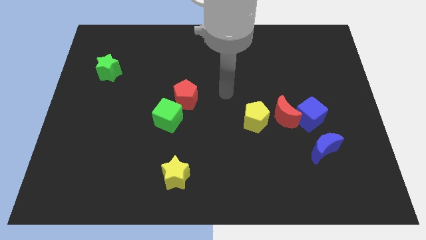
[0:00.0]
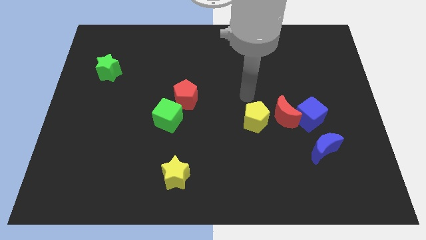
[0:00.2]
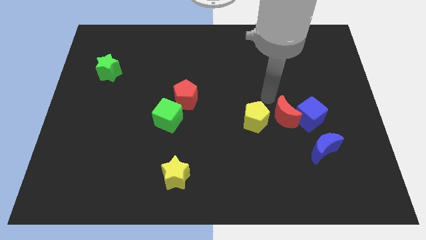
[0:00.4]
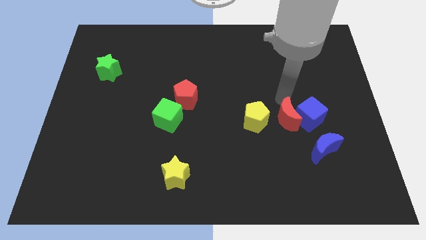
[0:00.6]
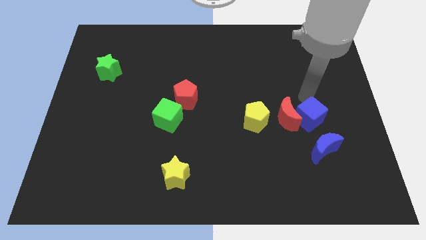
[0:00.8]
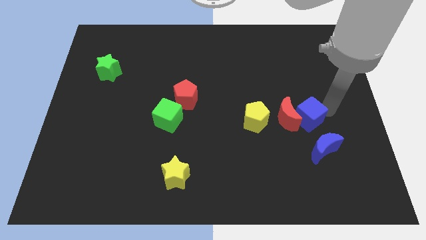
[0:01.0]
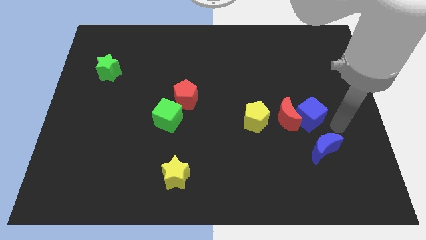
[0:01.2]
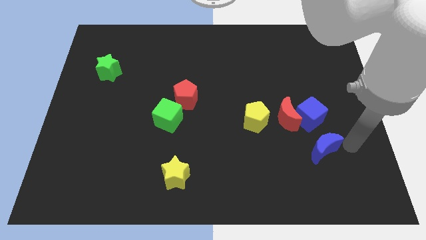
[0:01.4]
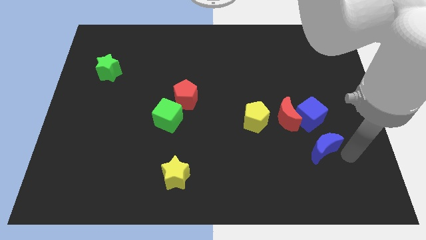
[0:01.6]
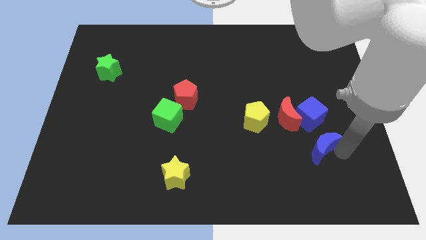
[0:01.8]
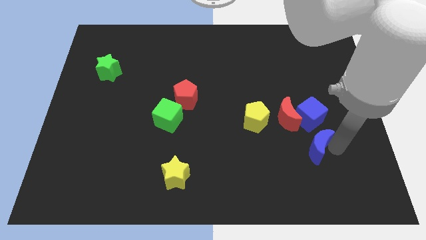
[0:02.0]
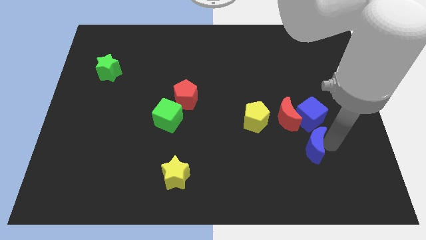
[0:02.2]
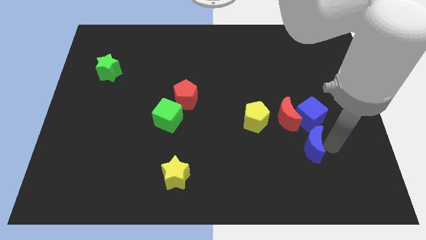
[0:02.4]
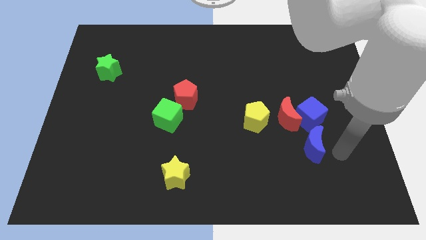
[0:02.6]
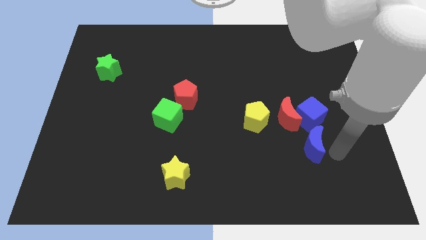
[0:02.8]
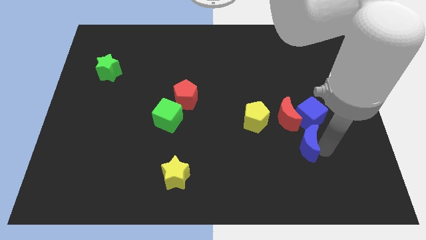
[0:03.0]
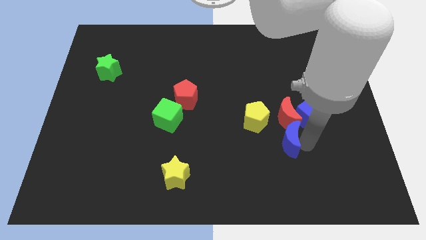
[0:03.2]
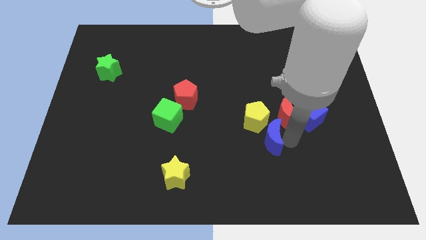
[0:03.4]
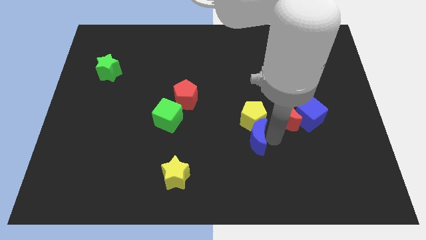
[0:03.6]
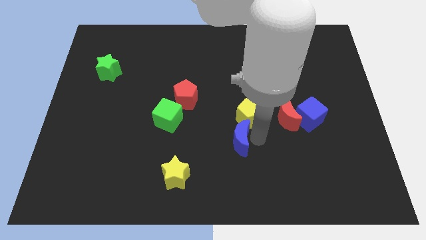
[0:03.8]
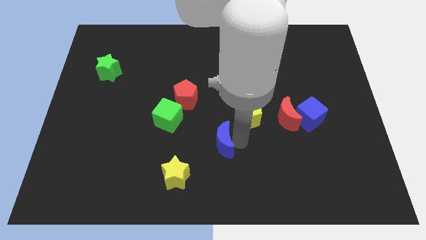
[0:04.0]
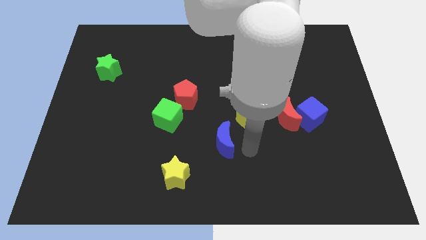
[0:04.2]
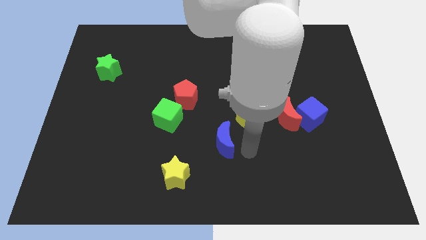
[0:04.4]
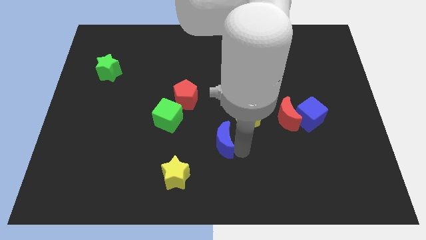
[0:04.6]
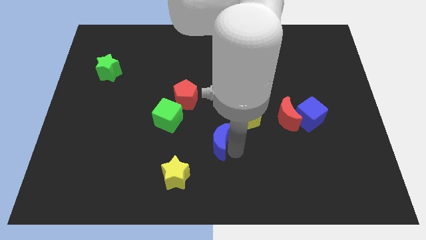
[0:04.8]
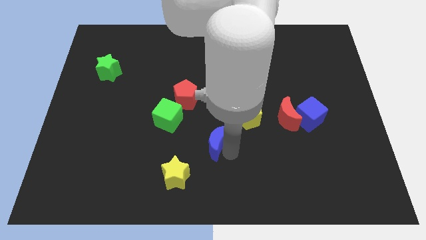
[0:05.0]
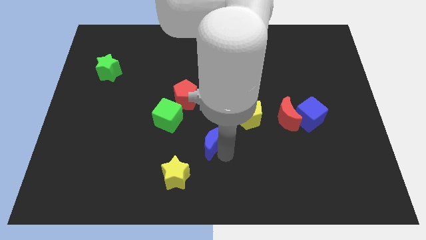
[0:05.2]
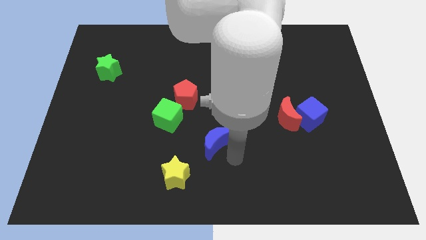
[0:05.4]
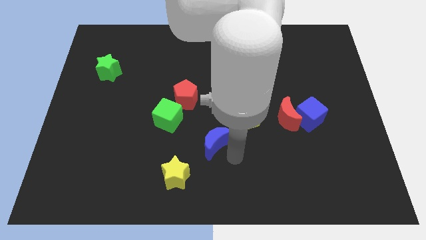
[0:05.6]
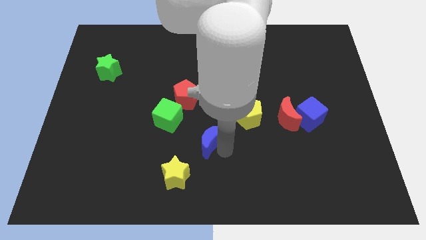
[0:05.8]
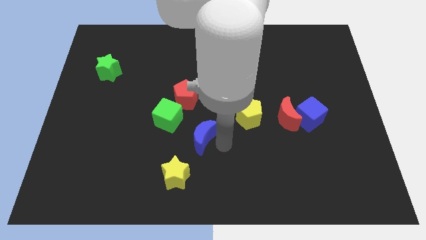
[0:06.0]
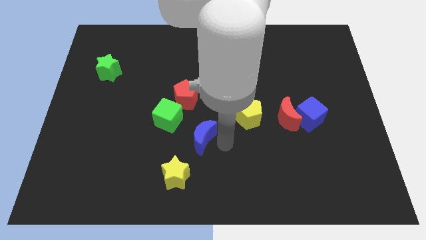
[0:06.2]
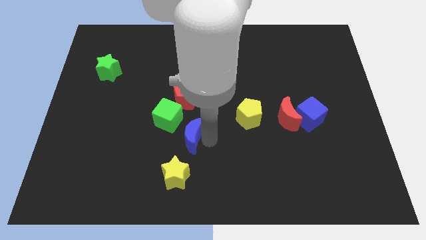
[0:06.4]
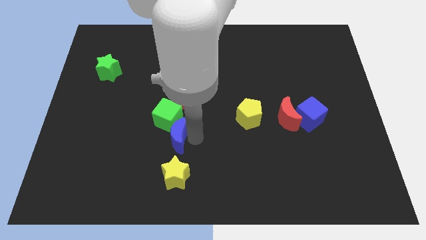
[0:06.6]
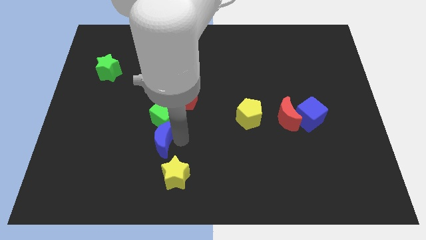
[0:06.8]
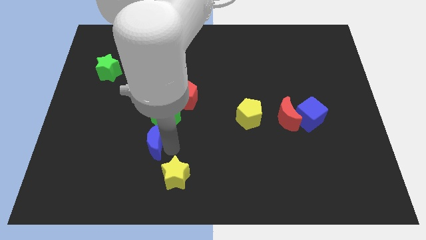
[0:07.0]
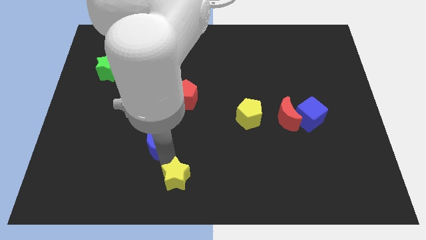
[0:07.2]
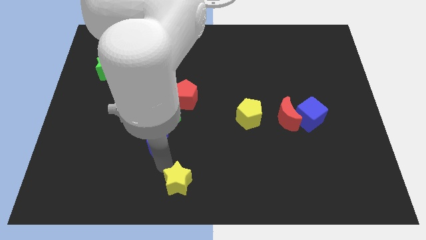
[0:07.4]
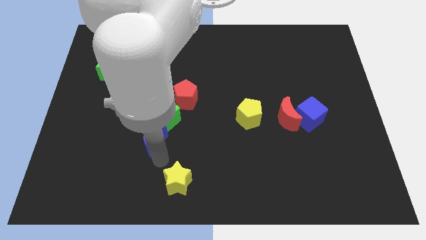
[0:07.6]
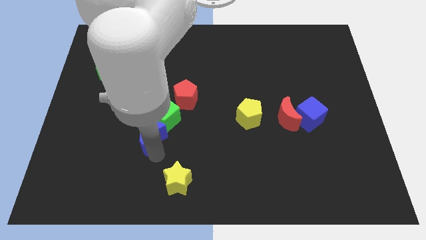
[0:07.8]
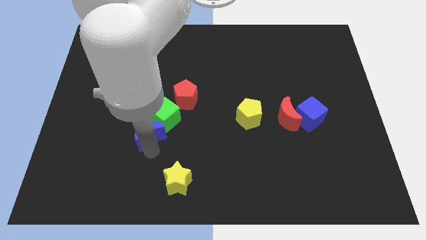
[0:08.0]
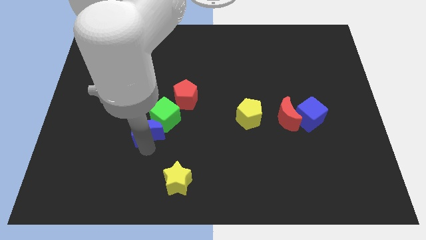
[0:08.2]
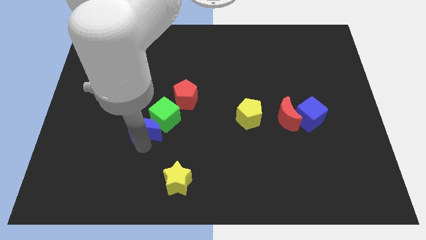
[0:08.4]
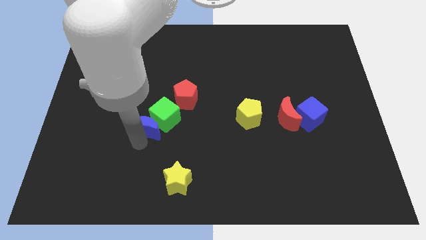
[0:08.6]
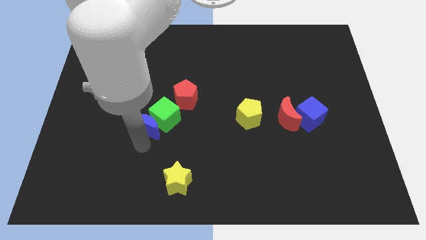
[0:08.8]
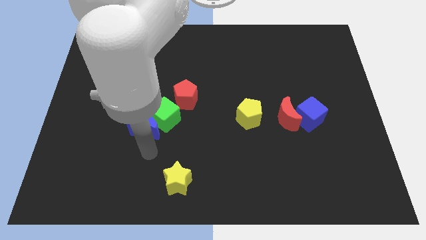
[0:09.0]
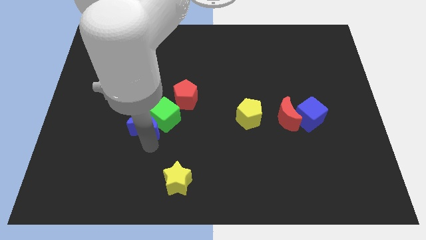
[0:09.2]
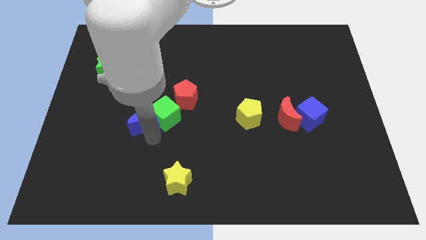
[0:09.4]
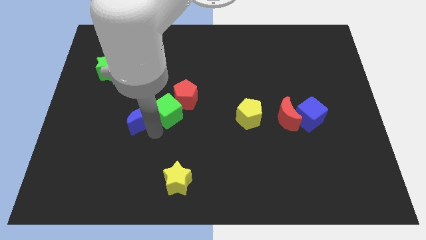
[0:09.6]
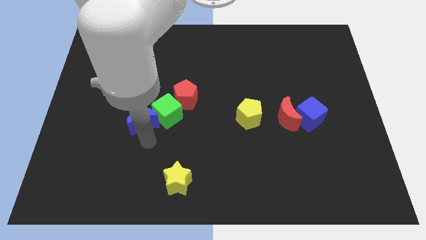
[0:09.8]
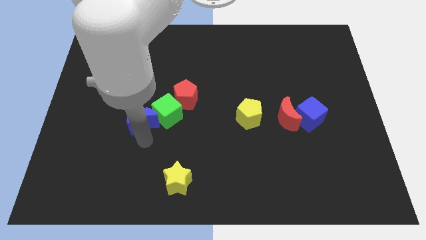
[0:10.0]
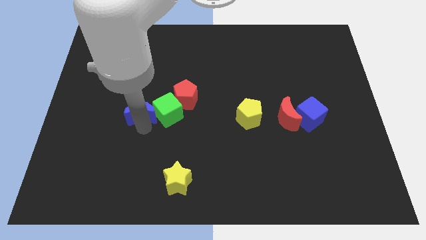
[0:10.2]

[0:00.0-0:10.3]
push the blue moon just left of the red pentagon

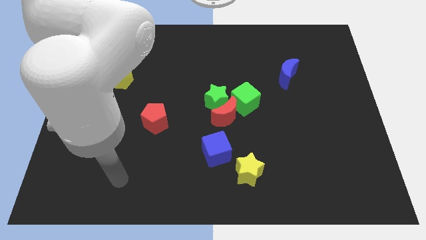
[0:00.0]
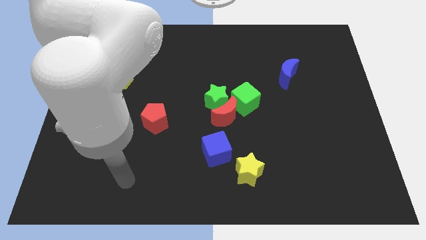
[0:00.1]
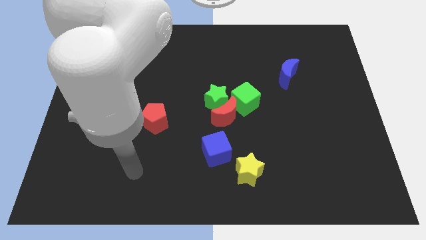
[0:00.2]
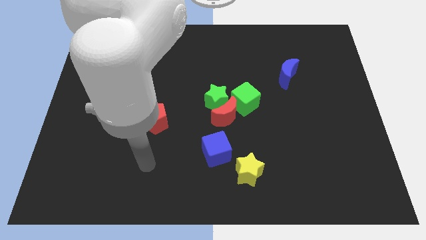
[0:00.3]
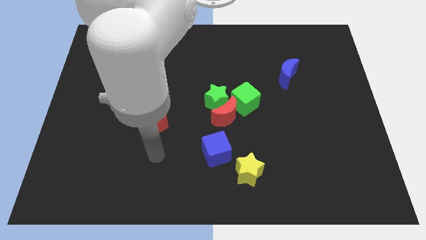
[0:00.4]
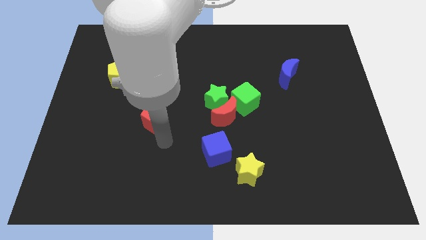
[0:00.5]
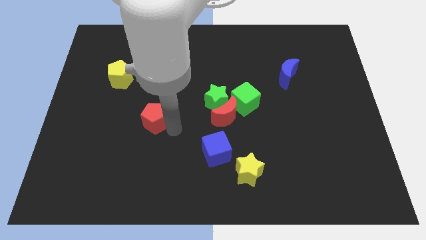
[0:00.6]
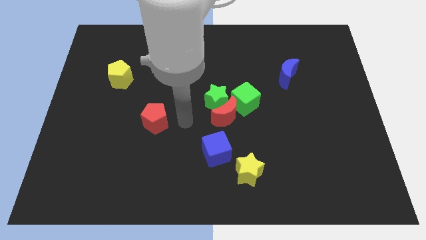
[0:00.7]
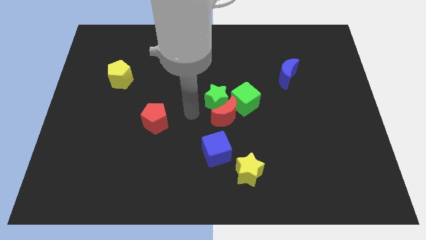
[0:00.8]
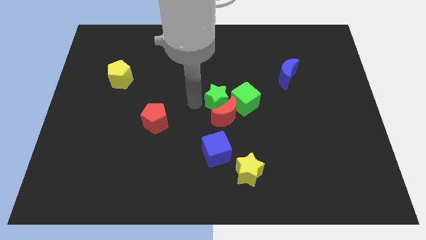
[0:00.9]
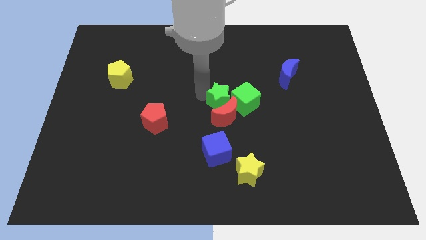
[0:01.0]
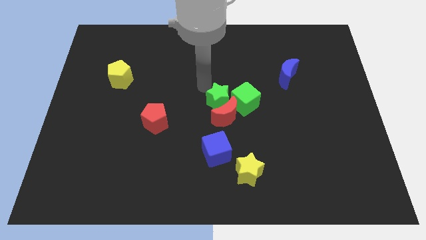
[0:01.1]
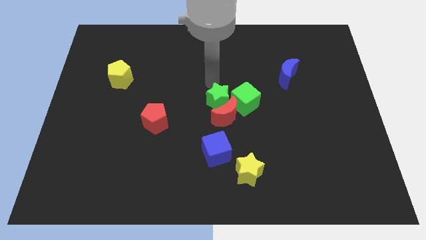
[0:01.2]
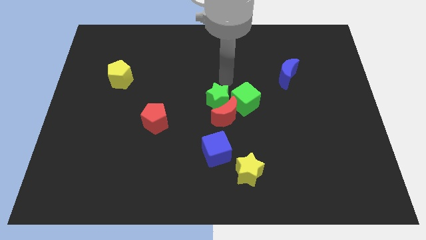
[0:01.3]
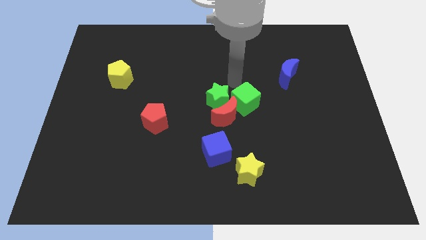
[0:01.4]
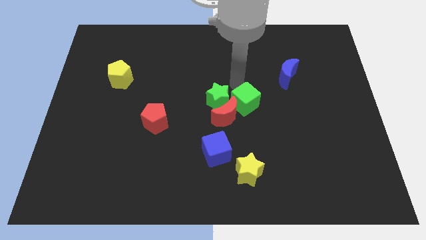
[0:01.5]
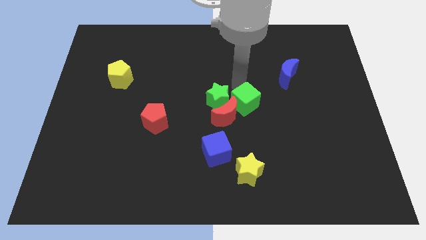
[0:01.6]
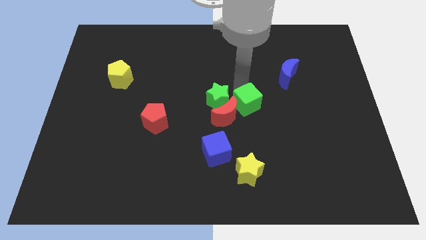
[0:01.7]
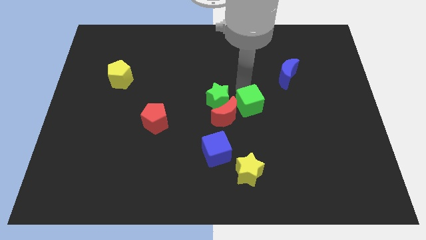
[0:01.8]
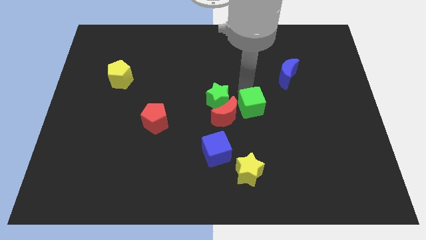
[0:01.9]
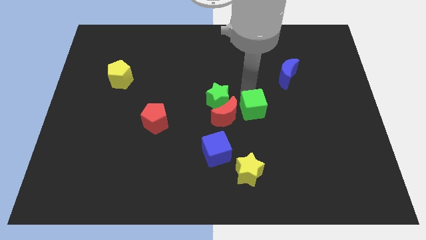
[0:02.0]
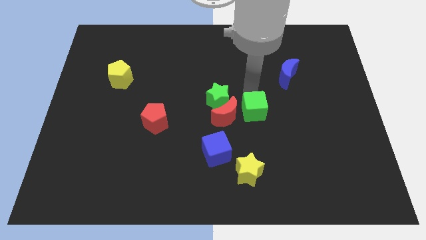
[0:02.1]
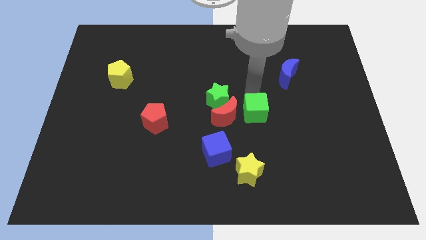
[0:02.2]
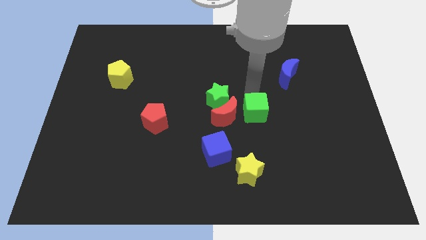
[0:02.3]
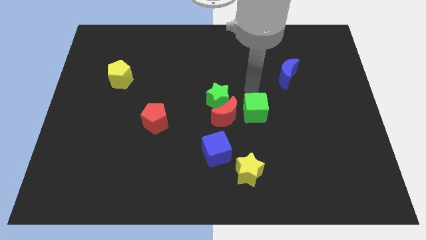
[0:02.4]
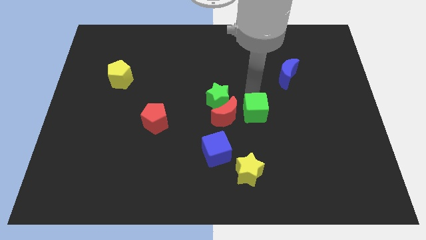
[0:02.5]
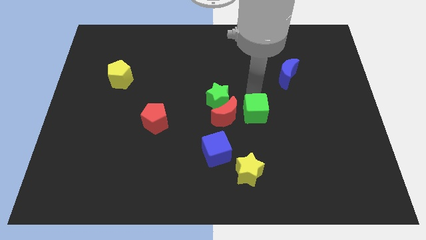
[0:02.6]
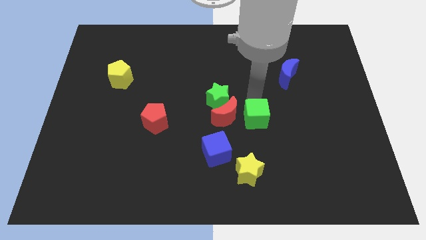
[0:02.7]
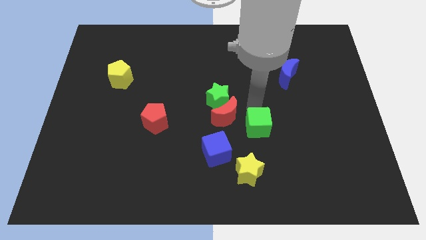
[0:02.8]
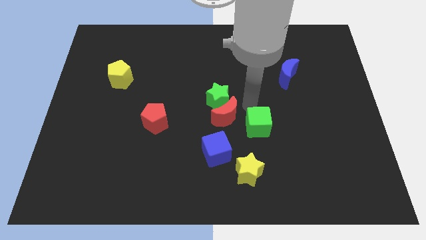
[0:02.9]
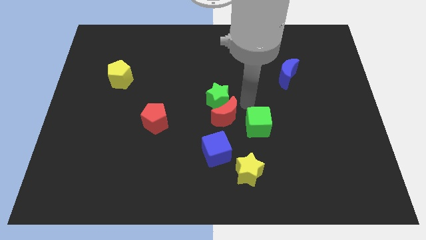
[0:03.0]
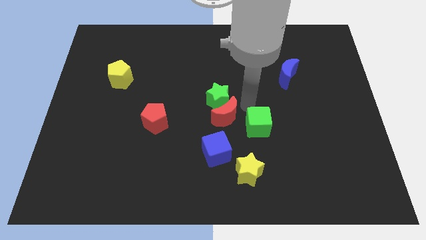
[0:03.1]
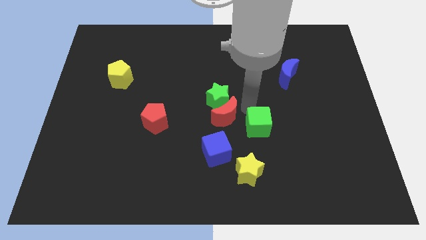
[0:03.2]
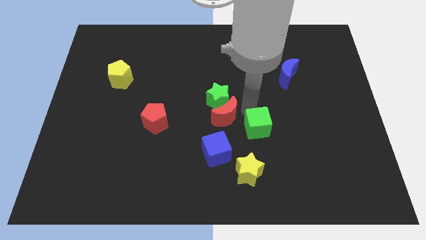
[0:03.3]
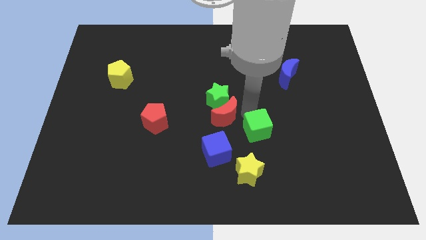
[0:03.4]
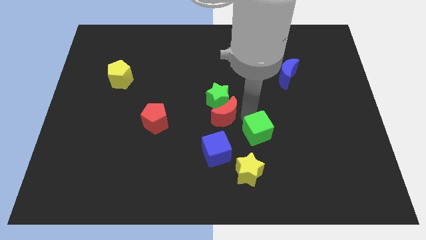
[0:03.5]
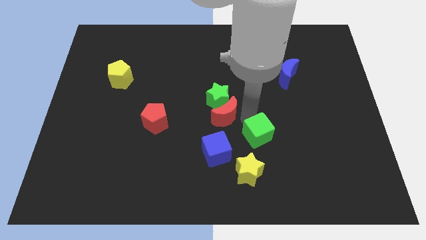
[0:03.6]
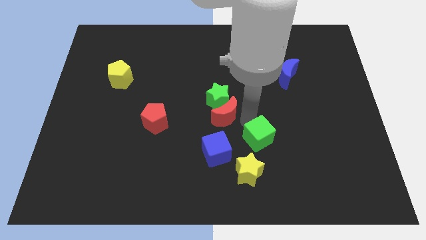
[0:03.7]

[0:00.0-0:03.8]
slide the green cube to the top right of the yellow star
